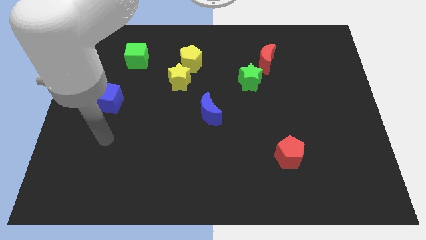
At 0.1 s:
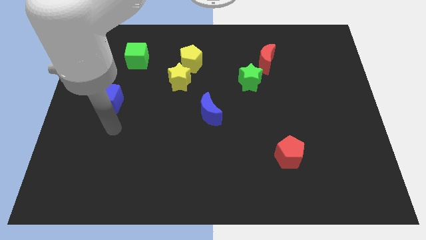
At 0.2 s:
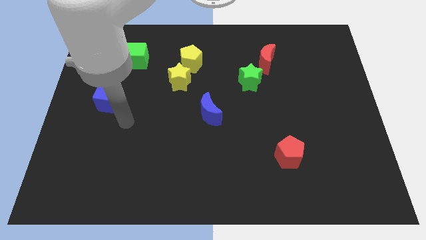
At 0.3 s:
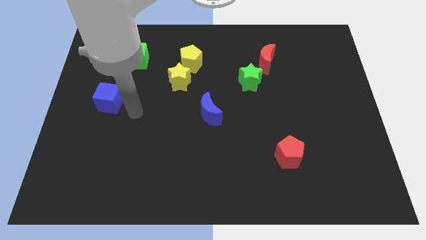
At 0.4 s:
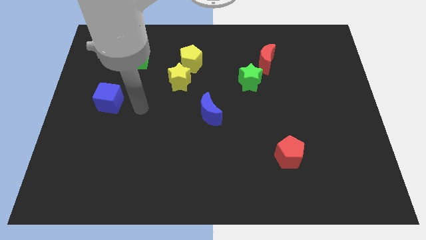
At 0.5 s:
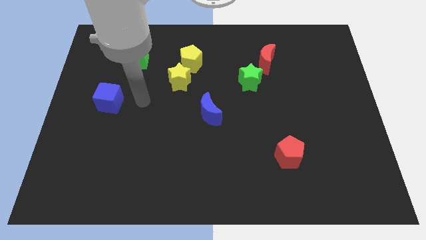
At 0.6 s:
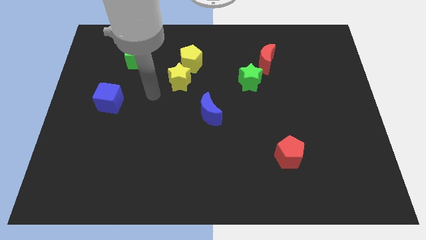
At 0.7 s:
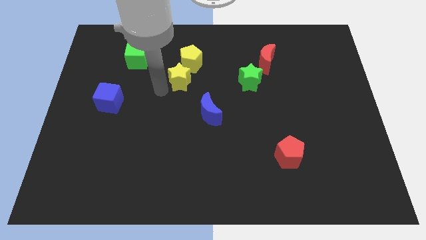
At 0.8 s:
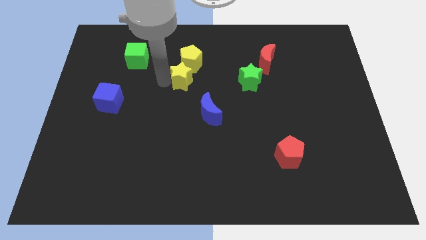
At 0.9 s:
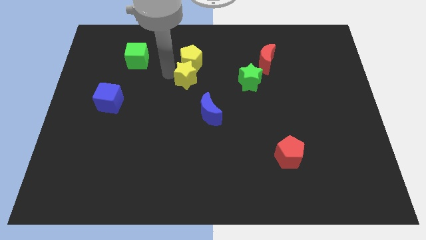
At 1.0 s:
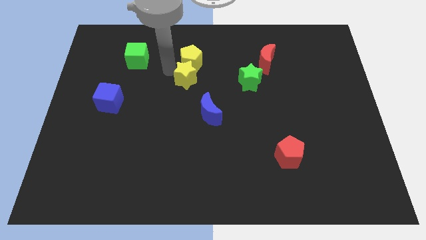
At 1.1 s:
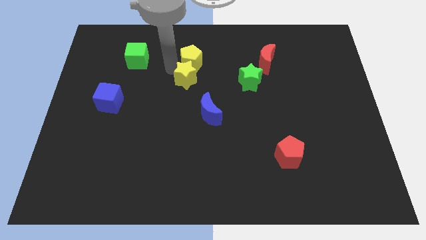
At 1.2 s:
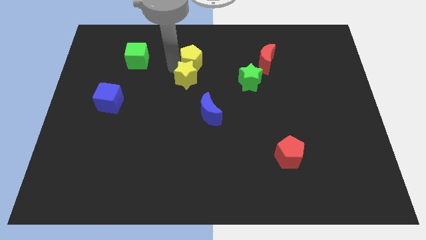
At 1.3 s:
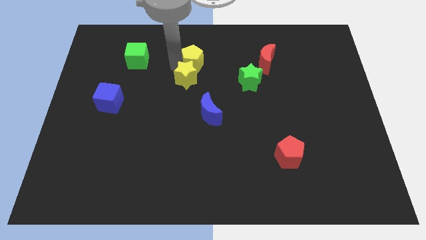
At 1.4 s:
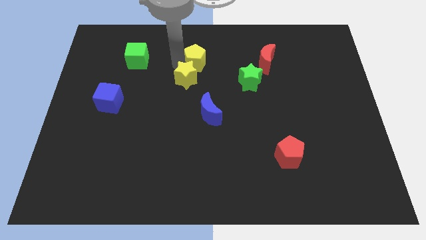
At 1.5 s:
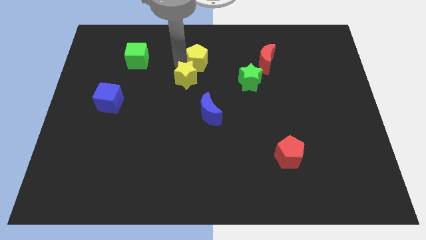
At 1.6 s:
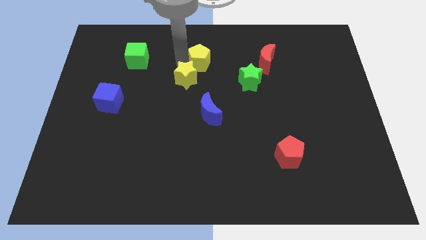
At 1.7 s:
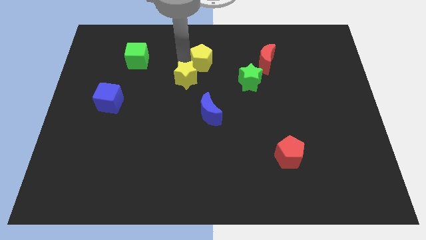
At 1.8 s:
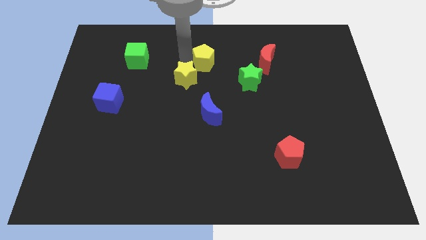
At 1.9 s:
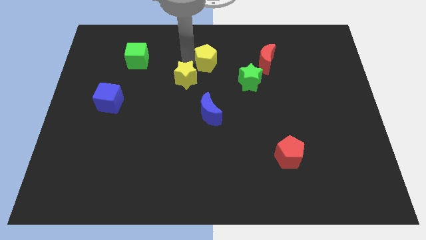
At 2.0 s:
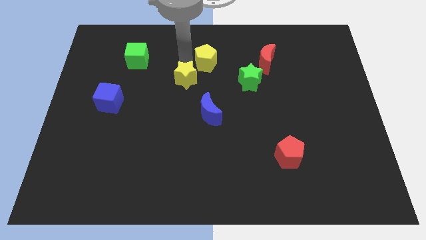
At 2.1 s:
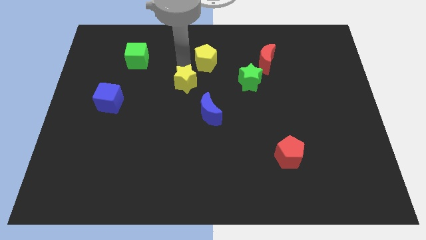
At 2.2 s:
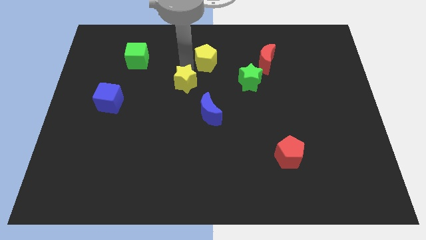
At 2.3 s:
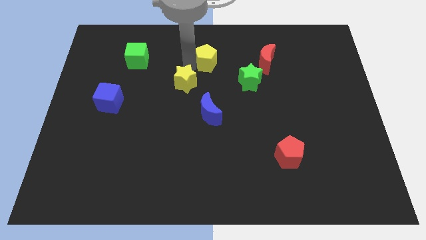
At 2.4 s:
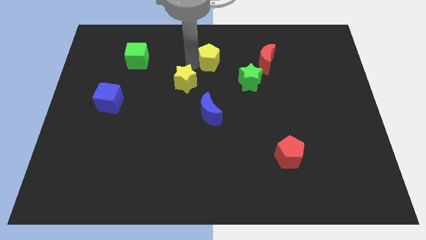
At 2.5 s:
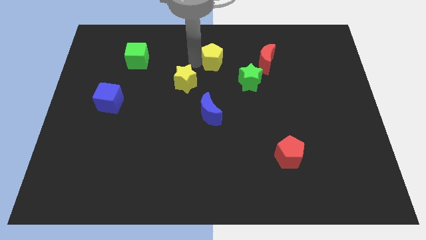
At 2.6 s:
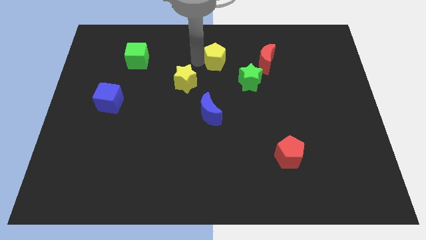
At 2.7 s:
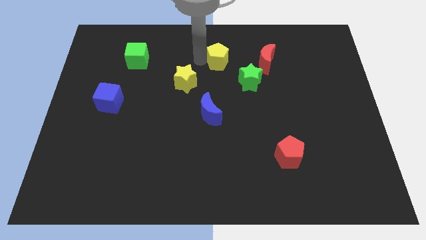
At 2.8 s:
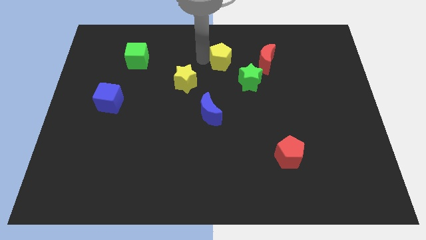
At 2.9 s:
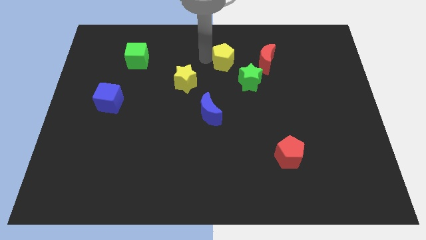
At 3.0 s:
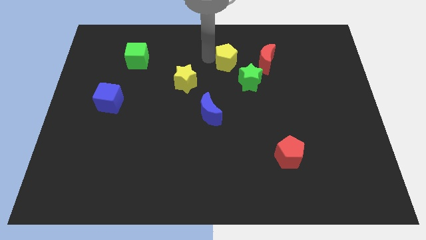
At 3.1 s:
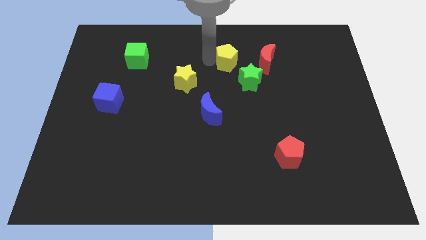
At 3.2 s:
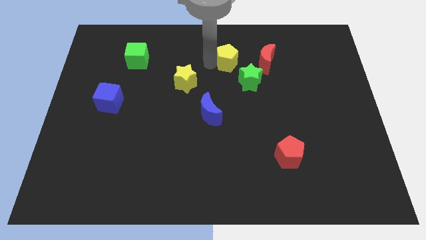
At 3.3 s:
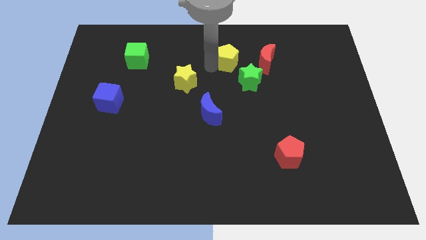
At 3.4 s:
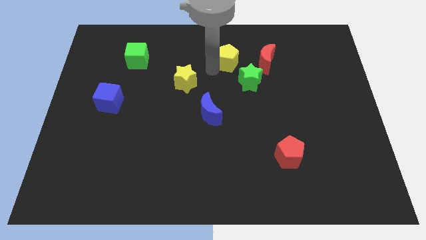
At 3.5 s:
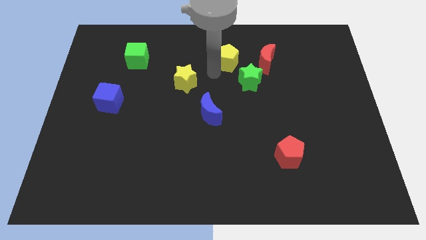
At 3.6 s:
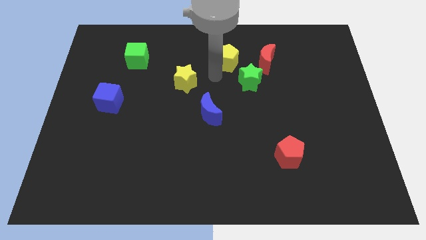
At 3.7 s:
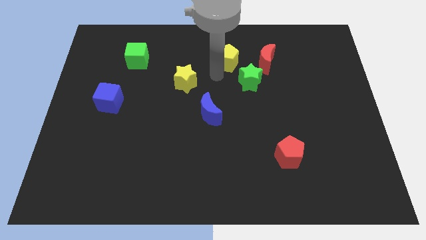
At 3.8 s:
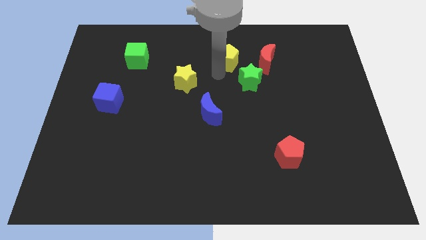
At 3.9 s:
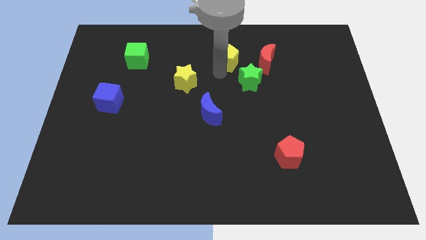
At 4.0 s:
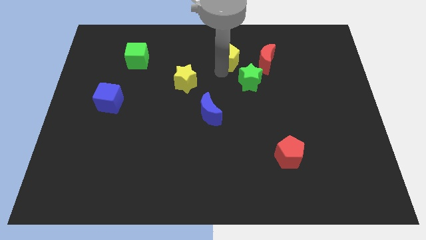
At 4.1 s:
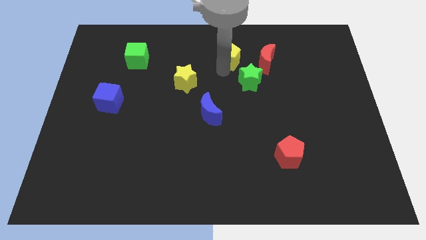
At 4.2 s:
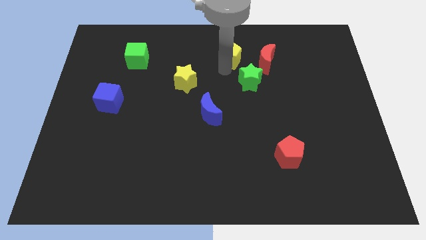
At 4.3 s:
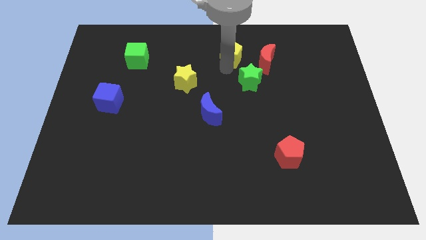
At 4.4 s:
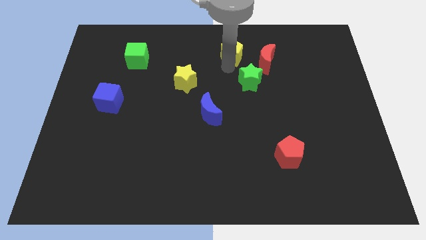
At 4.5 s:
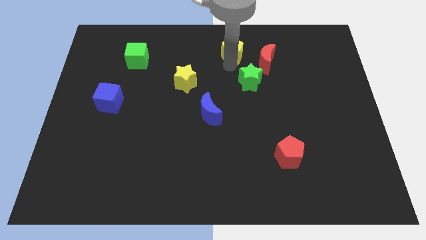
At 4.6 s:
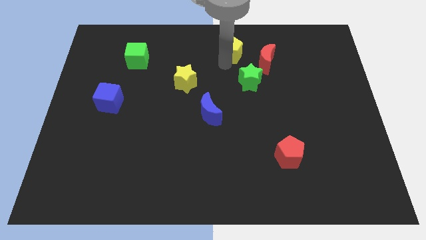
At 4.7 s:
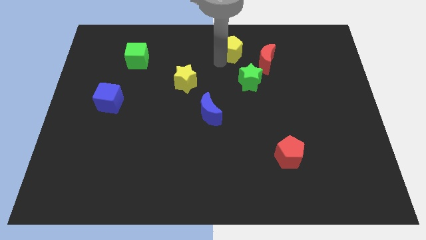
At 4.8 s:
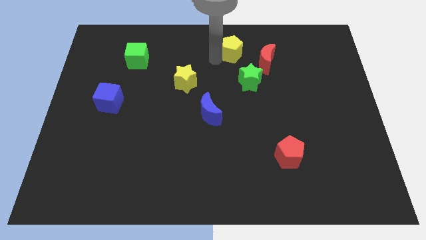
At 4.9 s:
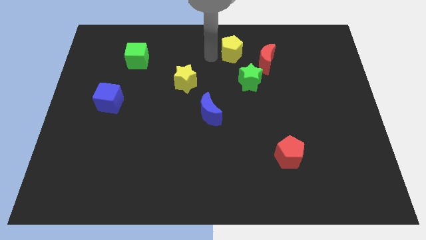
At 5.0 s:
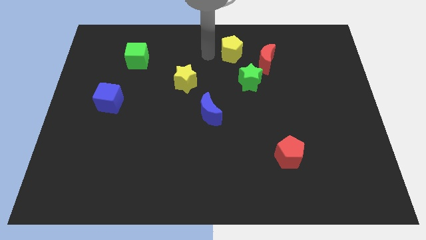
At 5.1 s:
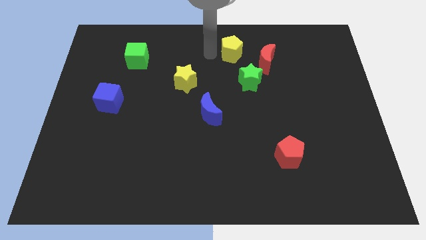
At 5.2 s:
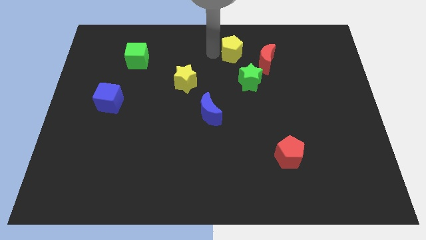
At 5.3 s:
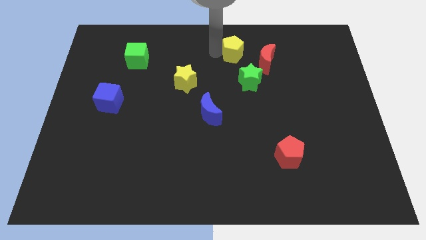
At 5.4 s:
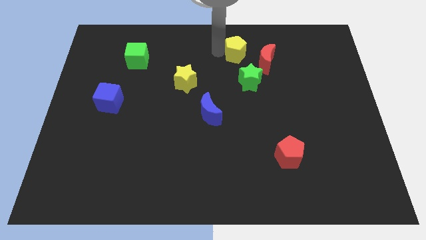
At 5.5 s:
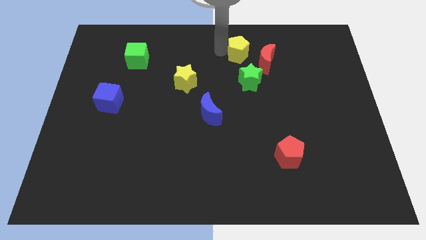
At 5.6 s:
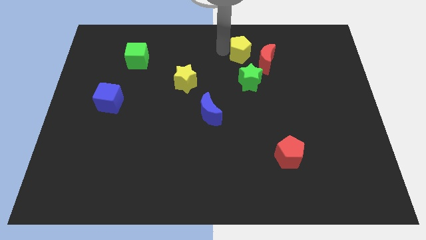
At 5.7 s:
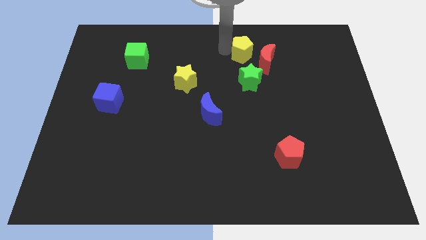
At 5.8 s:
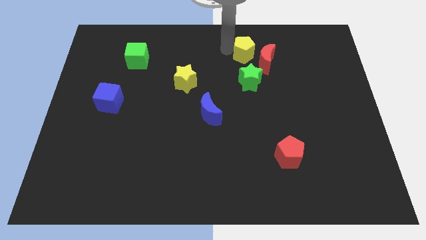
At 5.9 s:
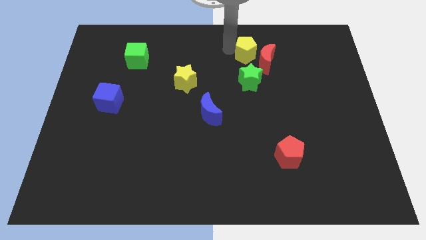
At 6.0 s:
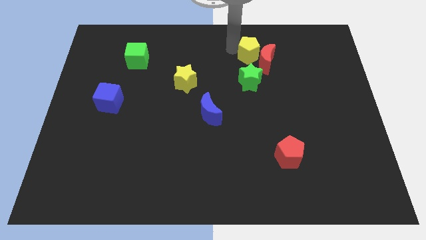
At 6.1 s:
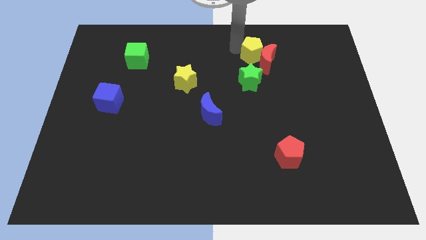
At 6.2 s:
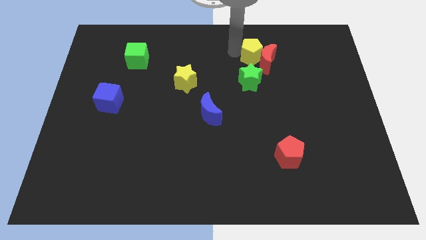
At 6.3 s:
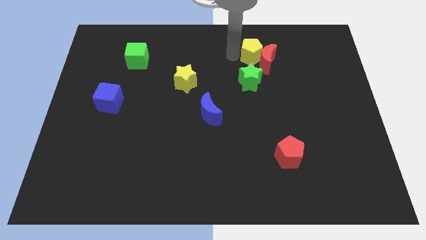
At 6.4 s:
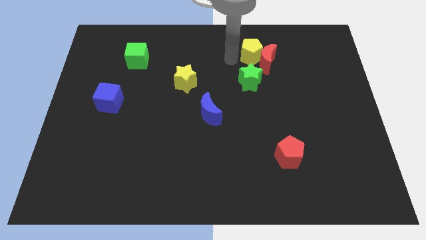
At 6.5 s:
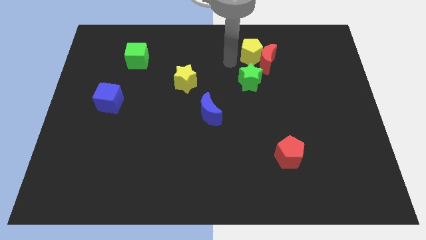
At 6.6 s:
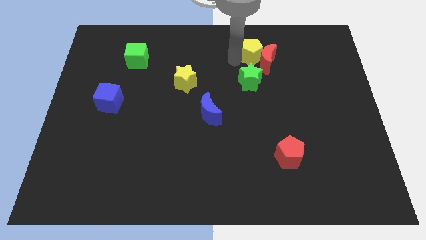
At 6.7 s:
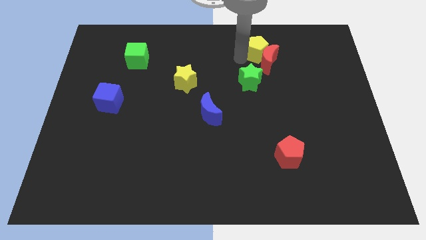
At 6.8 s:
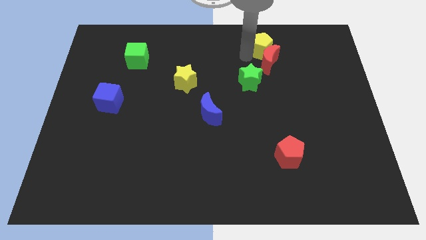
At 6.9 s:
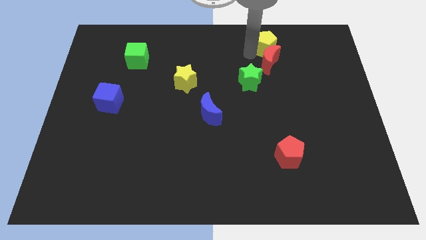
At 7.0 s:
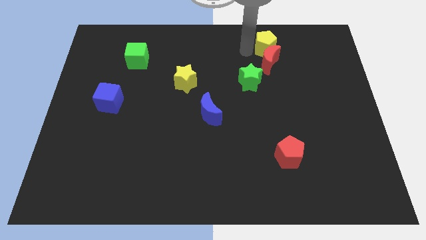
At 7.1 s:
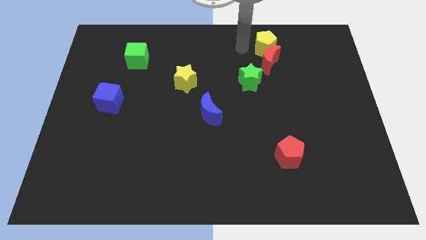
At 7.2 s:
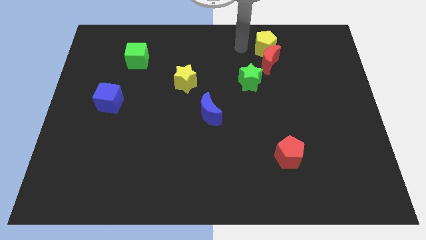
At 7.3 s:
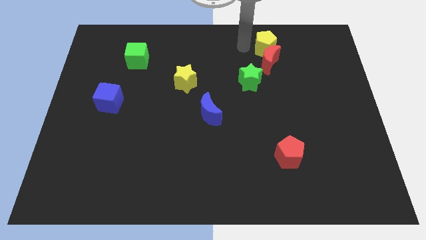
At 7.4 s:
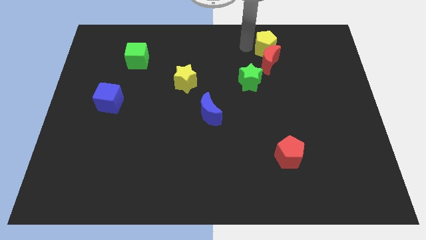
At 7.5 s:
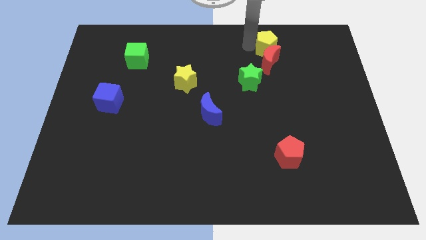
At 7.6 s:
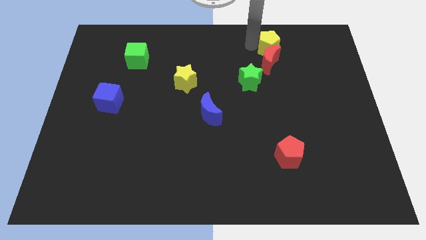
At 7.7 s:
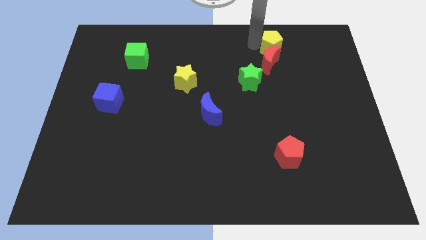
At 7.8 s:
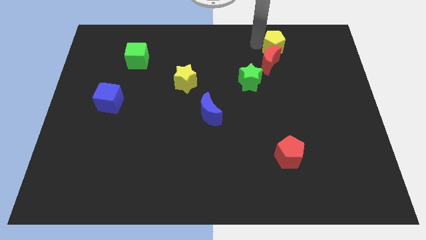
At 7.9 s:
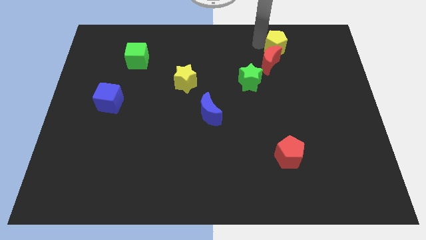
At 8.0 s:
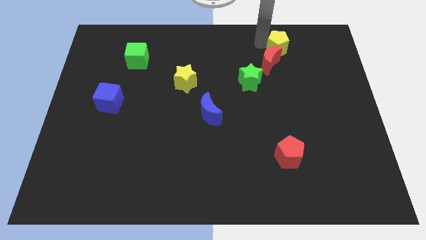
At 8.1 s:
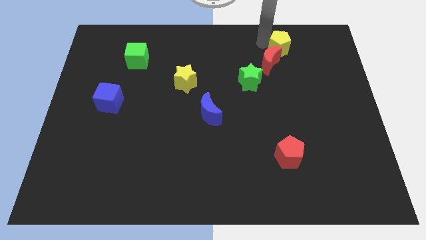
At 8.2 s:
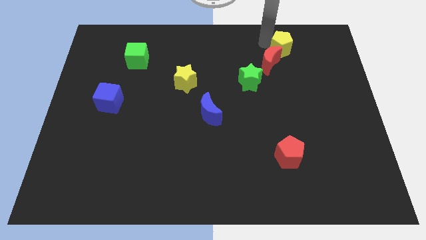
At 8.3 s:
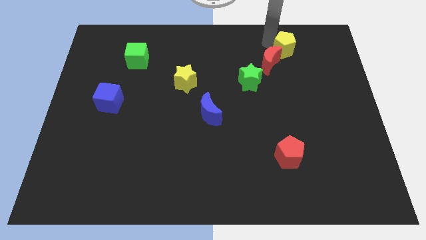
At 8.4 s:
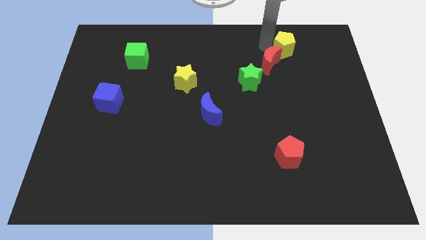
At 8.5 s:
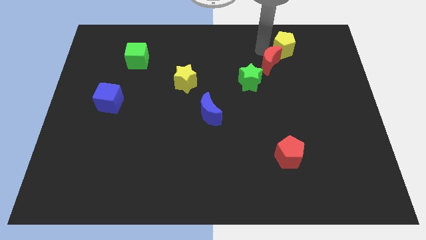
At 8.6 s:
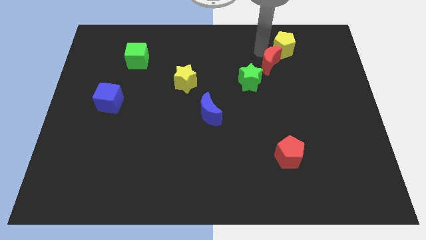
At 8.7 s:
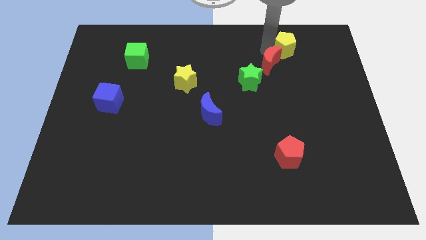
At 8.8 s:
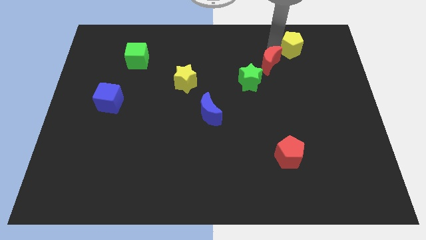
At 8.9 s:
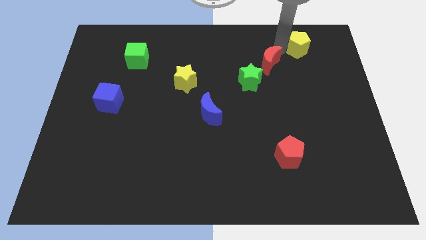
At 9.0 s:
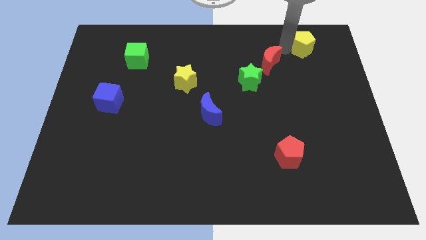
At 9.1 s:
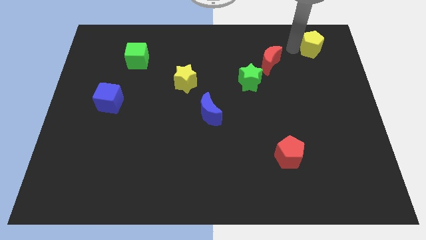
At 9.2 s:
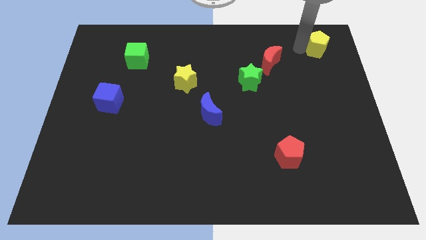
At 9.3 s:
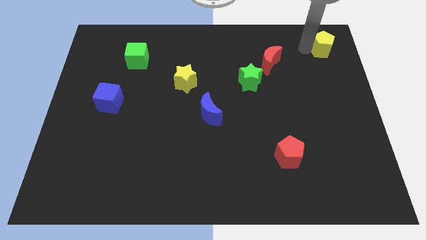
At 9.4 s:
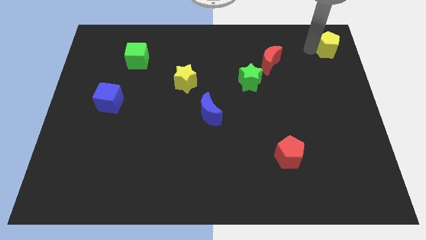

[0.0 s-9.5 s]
move the yellow pentagon to the upper right corner
